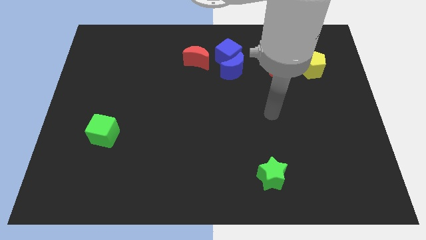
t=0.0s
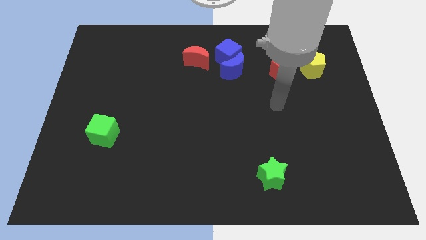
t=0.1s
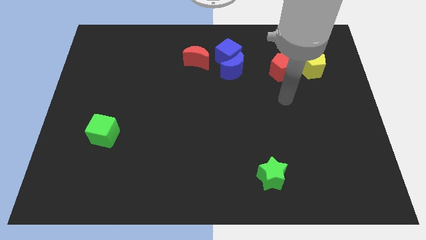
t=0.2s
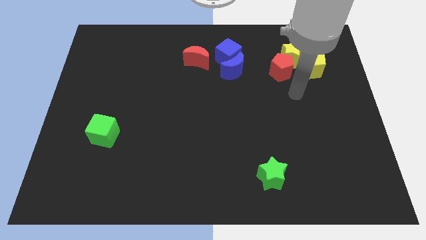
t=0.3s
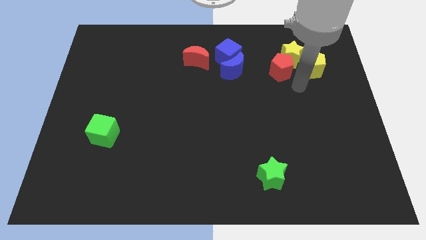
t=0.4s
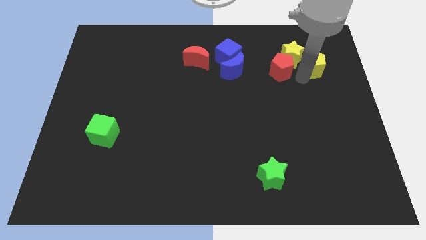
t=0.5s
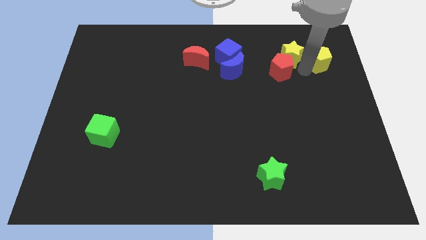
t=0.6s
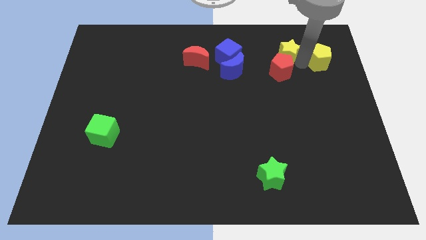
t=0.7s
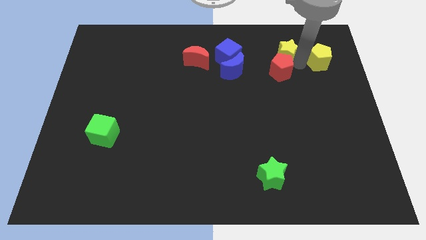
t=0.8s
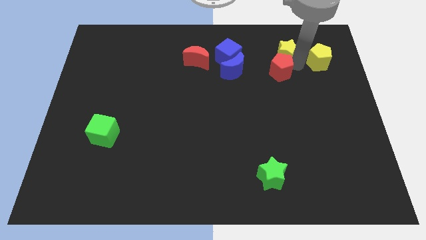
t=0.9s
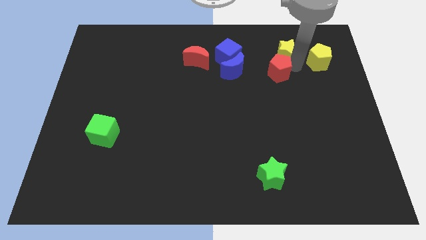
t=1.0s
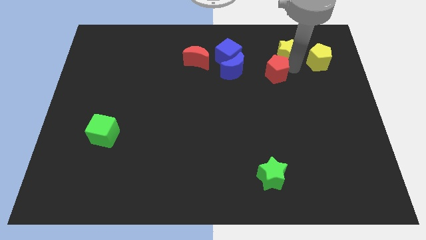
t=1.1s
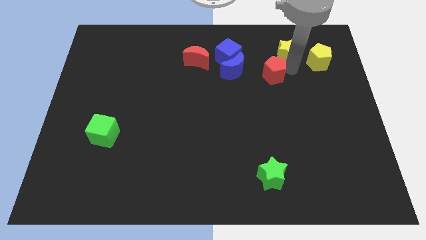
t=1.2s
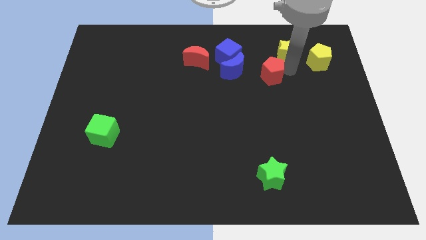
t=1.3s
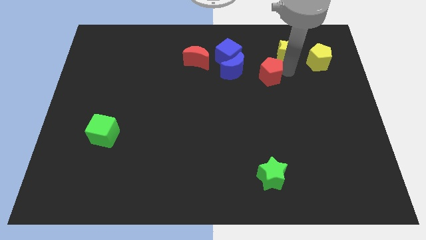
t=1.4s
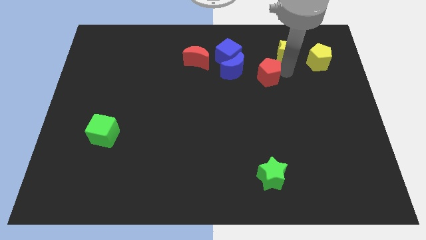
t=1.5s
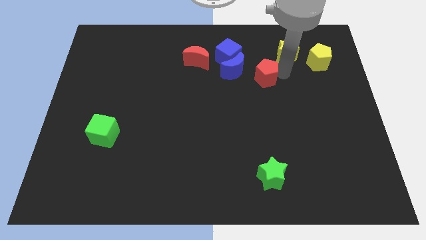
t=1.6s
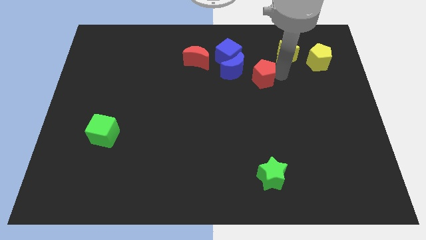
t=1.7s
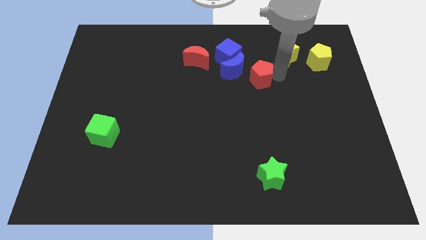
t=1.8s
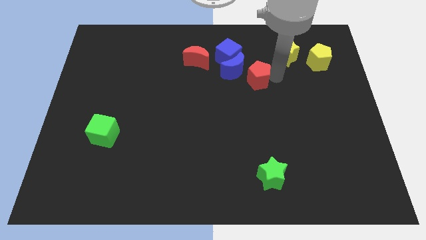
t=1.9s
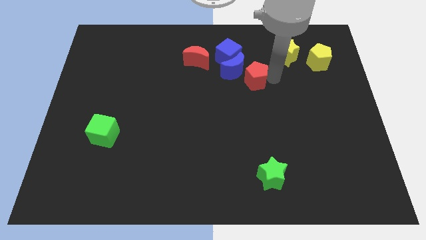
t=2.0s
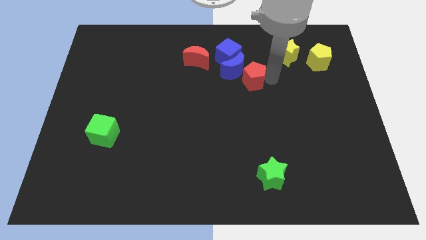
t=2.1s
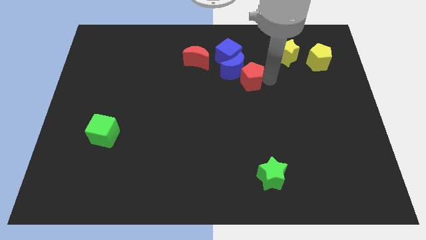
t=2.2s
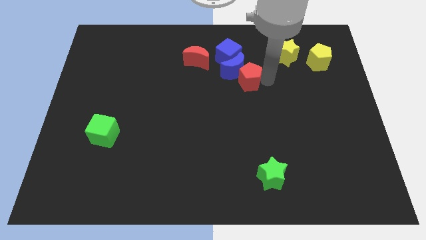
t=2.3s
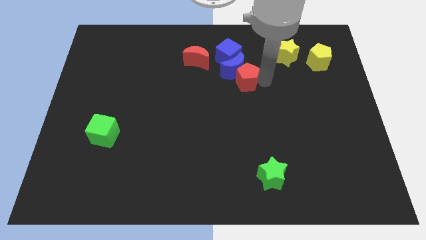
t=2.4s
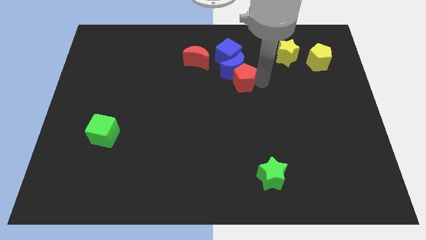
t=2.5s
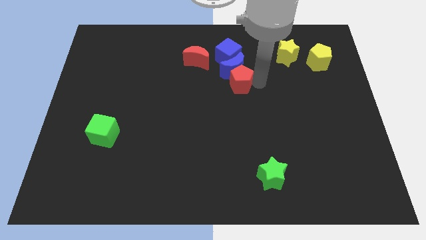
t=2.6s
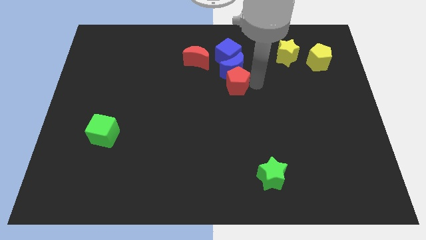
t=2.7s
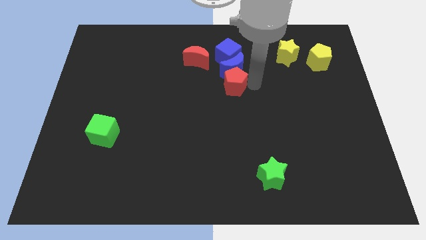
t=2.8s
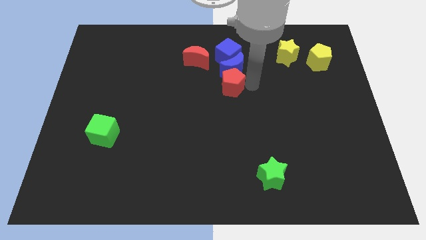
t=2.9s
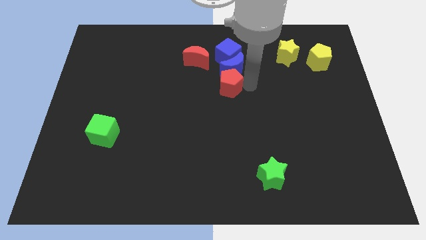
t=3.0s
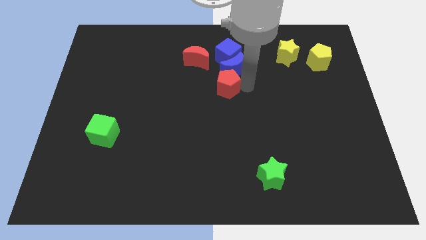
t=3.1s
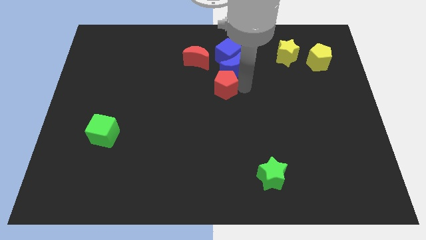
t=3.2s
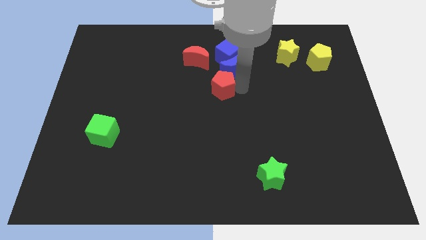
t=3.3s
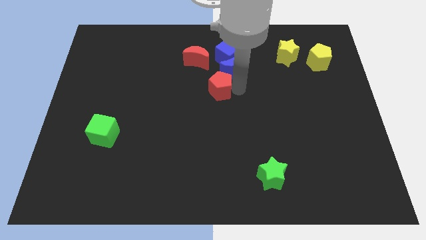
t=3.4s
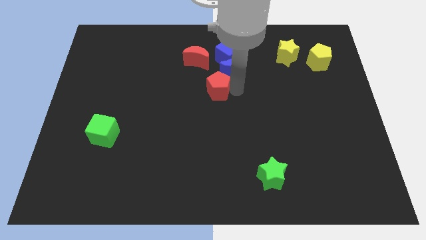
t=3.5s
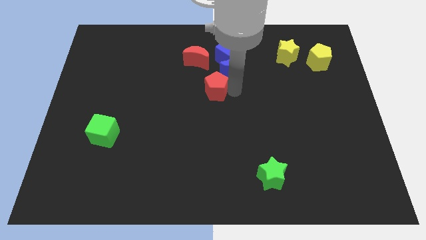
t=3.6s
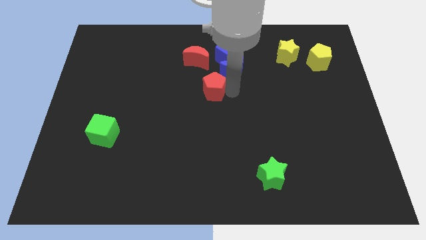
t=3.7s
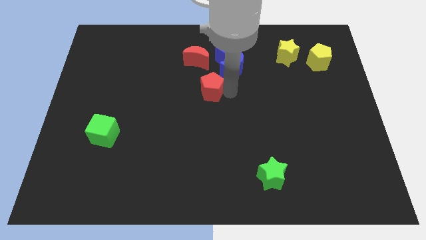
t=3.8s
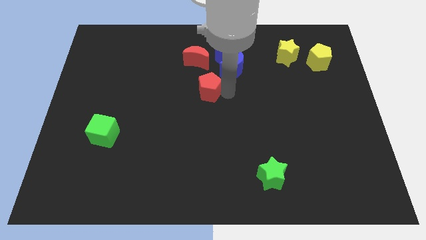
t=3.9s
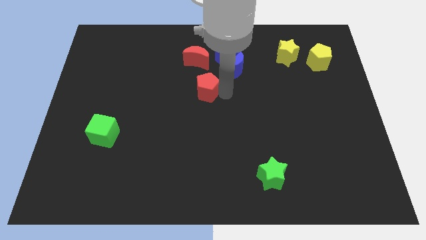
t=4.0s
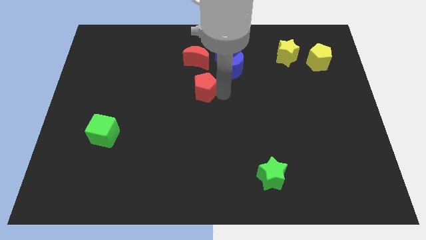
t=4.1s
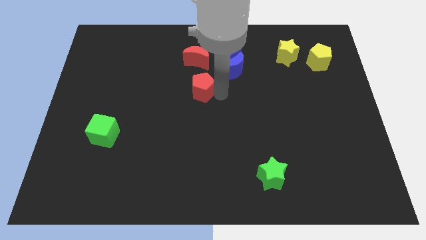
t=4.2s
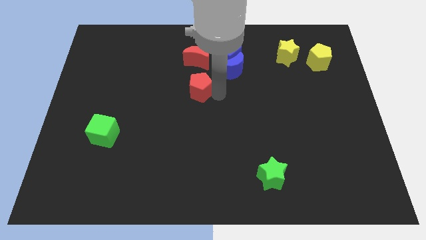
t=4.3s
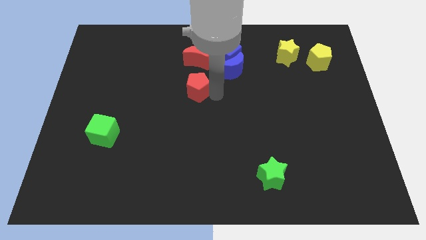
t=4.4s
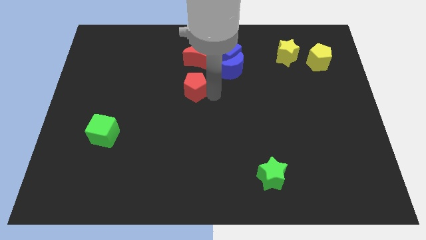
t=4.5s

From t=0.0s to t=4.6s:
slide the red pentagon left

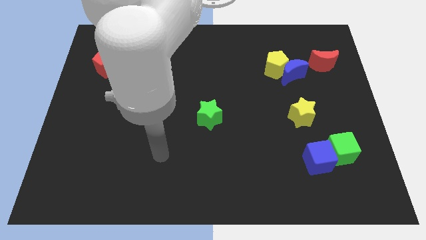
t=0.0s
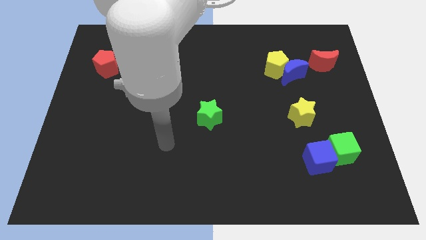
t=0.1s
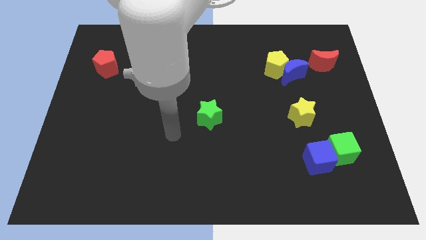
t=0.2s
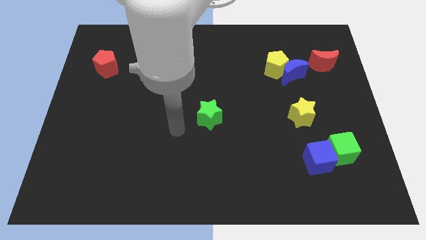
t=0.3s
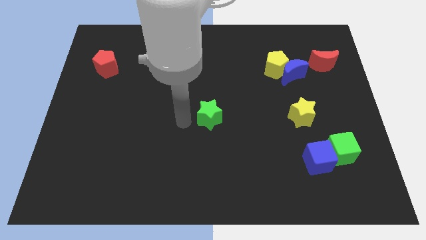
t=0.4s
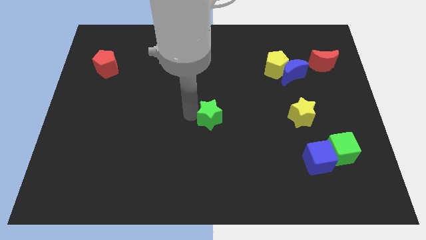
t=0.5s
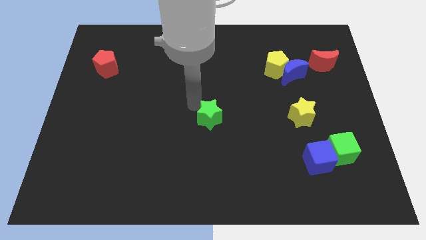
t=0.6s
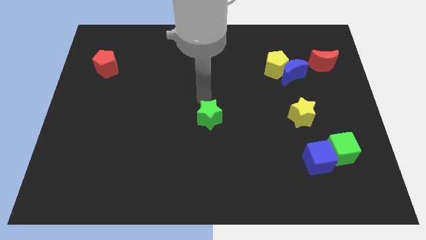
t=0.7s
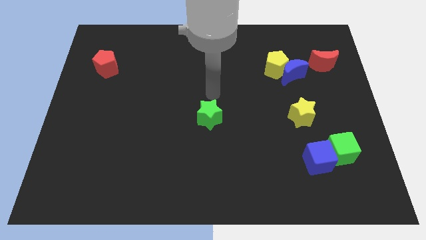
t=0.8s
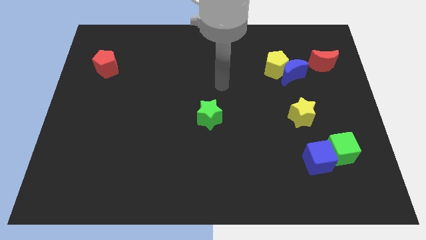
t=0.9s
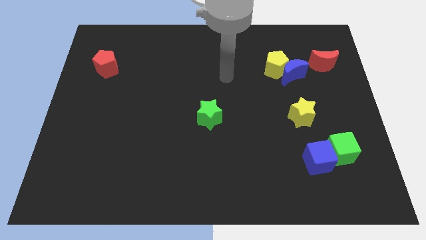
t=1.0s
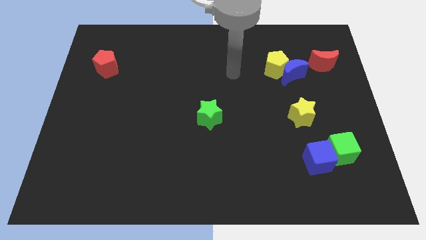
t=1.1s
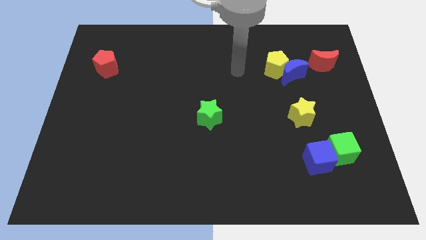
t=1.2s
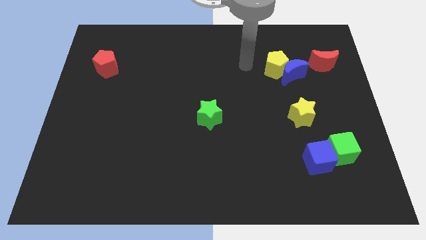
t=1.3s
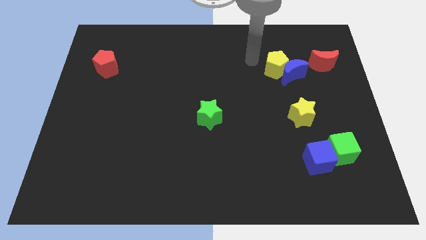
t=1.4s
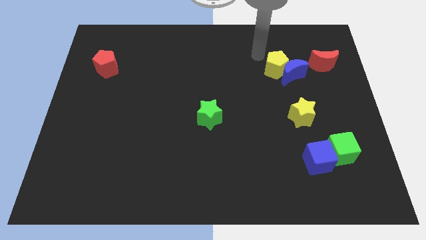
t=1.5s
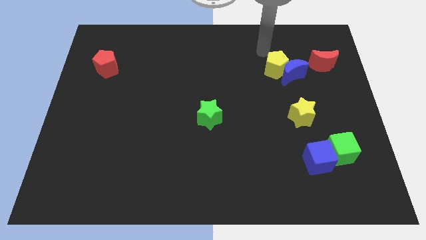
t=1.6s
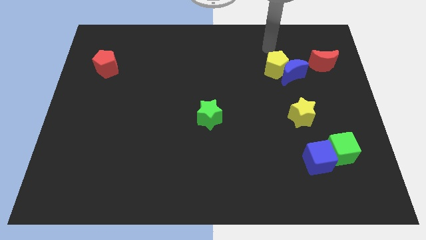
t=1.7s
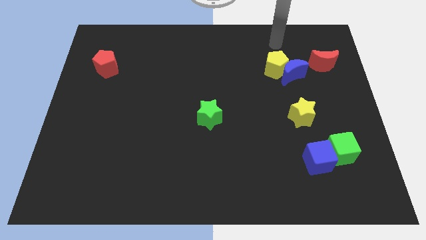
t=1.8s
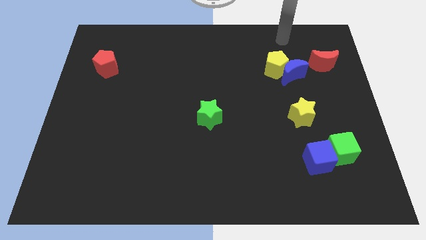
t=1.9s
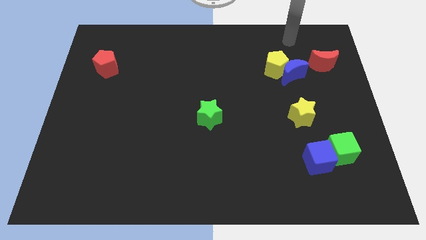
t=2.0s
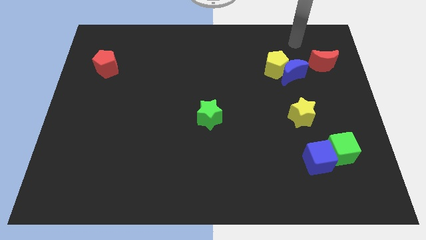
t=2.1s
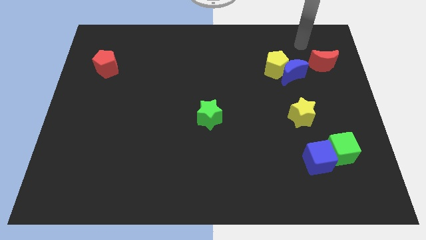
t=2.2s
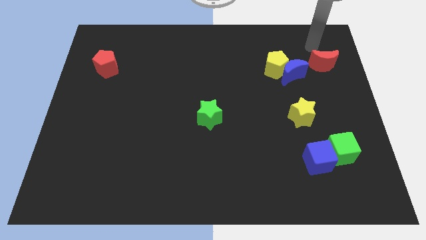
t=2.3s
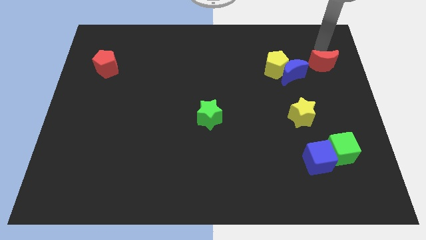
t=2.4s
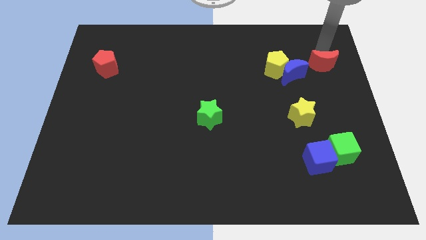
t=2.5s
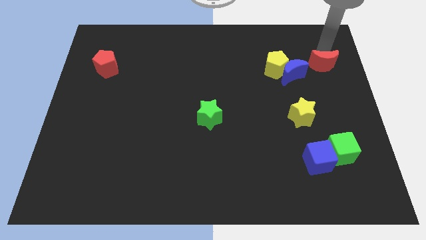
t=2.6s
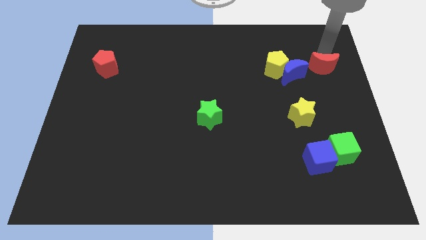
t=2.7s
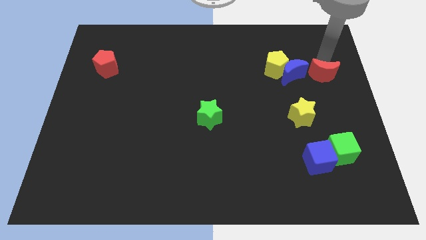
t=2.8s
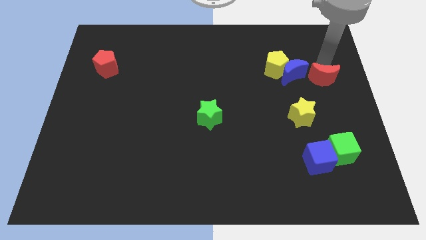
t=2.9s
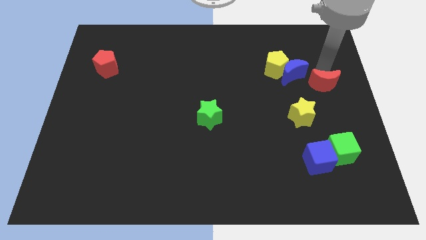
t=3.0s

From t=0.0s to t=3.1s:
slightly push the red moon downwards

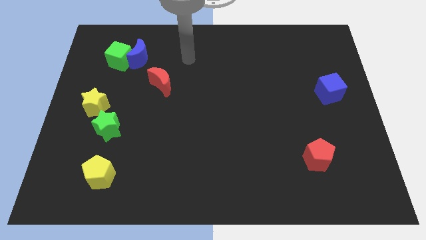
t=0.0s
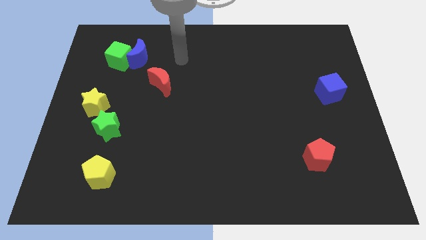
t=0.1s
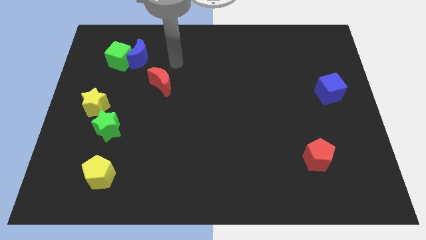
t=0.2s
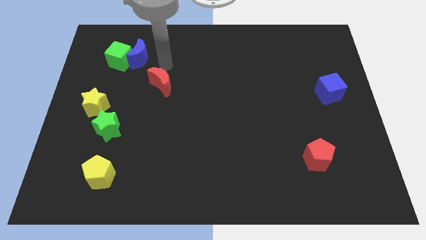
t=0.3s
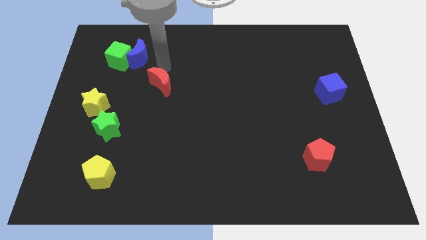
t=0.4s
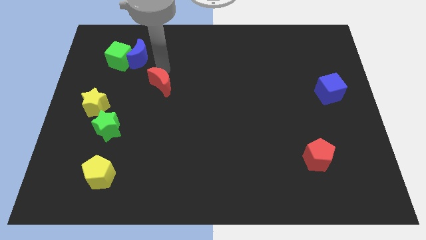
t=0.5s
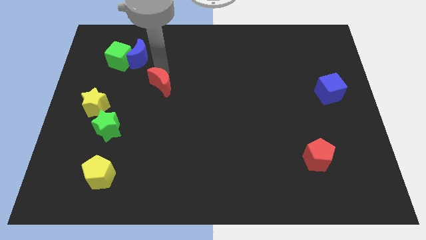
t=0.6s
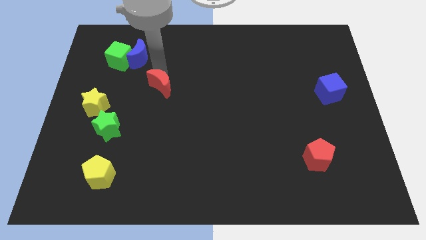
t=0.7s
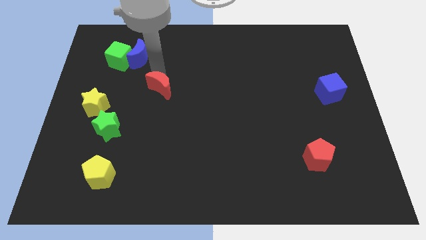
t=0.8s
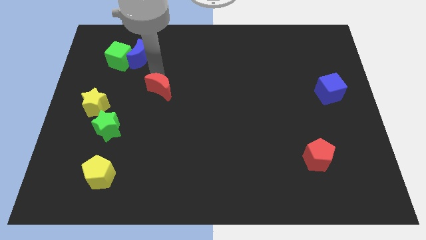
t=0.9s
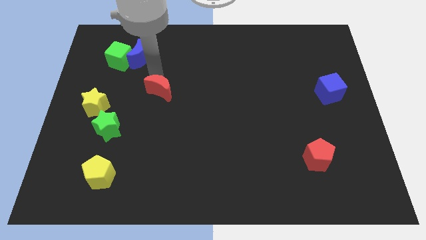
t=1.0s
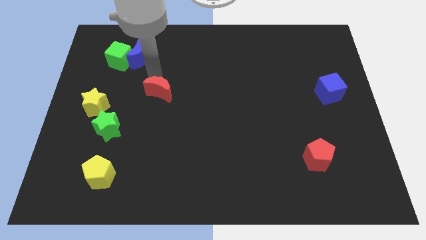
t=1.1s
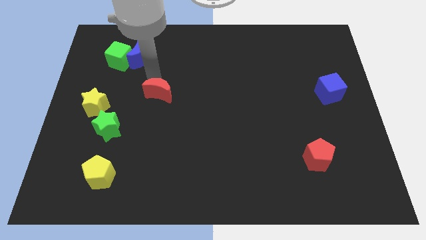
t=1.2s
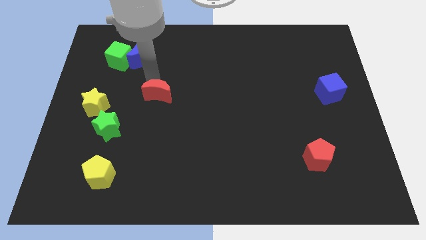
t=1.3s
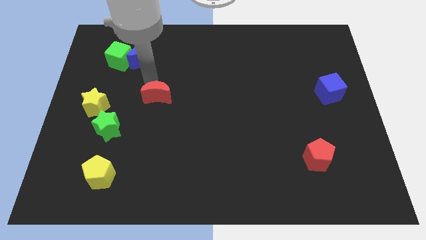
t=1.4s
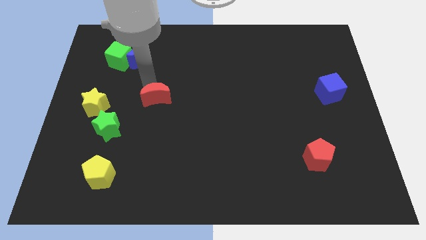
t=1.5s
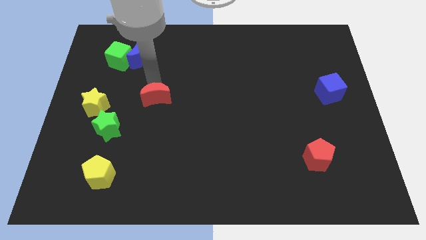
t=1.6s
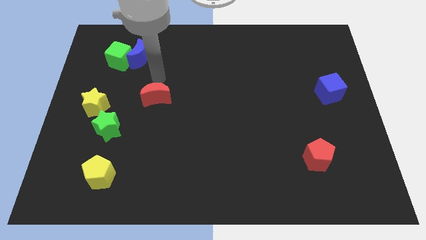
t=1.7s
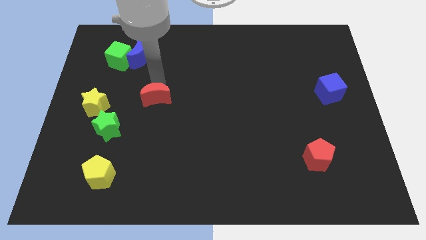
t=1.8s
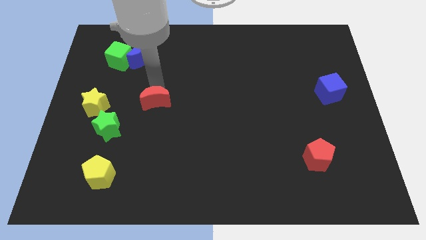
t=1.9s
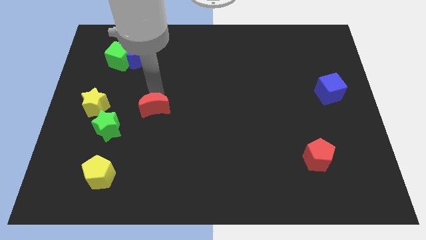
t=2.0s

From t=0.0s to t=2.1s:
slightly move the red moon down
